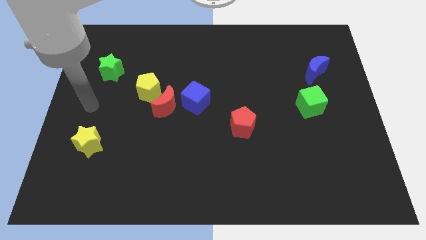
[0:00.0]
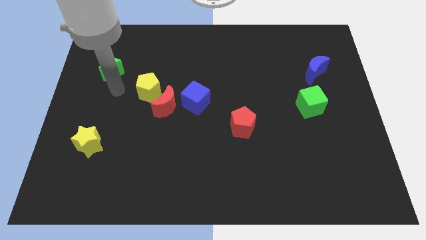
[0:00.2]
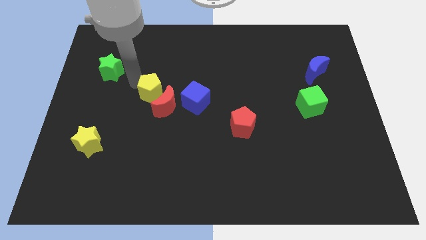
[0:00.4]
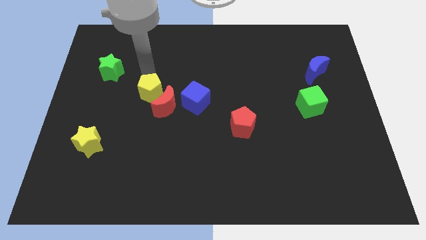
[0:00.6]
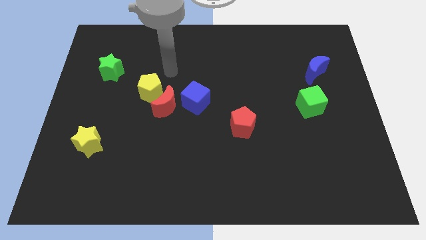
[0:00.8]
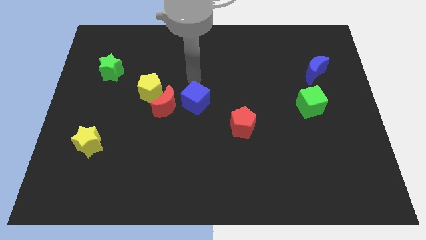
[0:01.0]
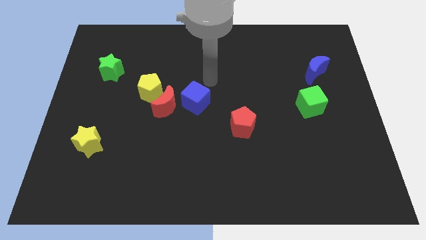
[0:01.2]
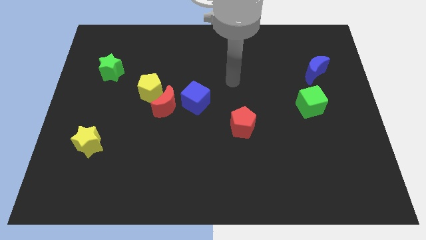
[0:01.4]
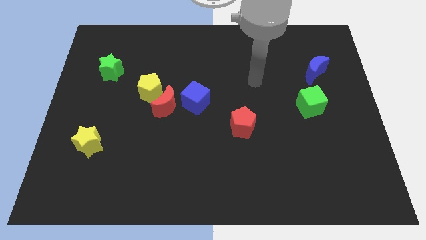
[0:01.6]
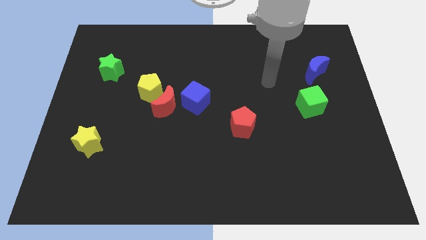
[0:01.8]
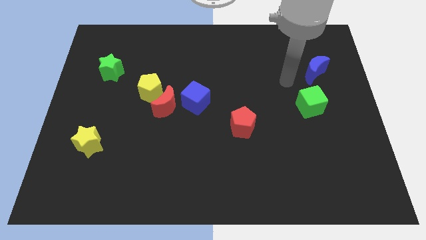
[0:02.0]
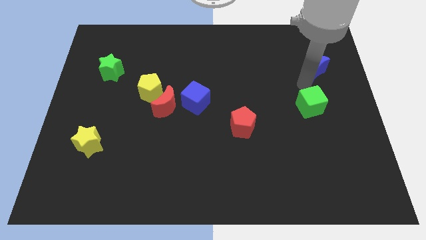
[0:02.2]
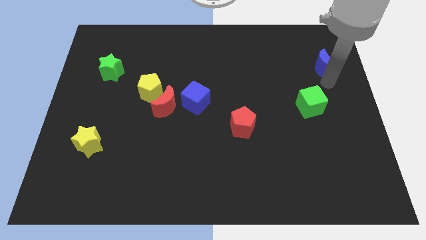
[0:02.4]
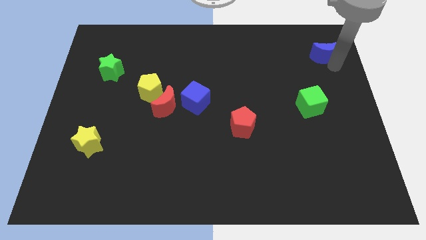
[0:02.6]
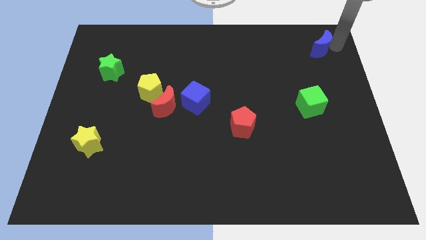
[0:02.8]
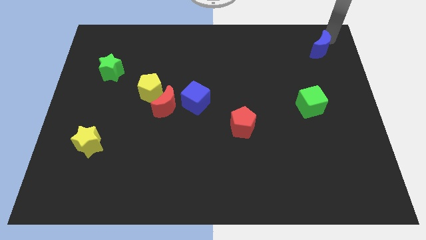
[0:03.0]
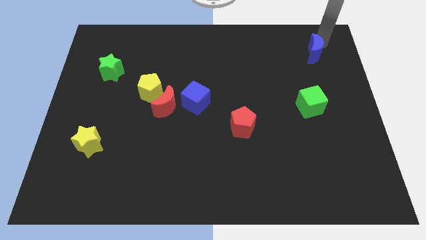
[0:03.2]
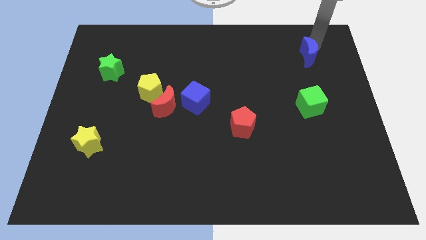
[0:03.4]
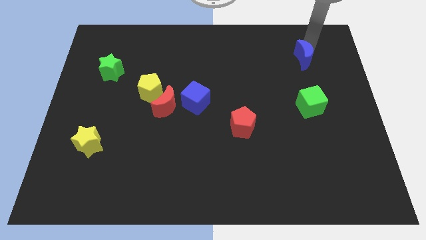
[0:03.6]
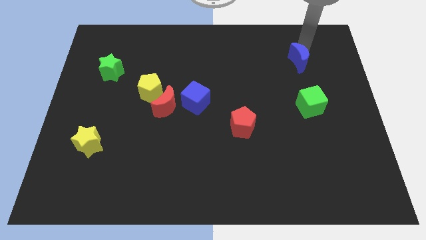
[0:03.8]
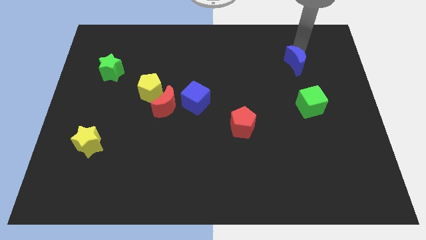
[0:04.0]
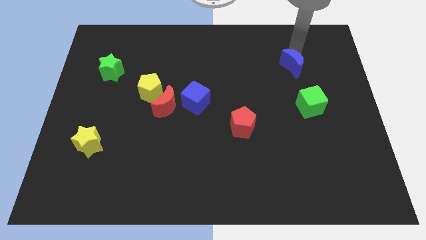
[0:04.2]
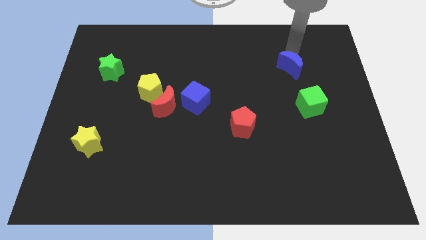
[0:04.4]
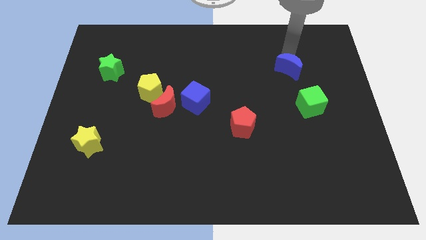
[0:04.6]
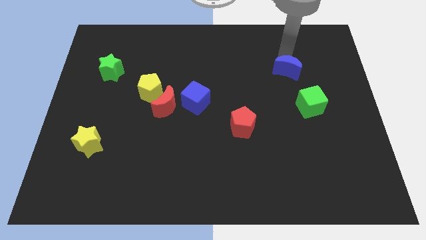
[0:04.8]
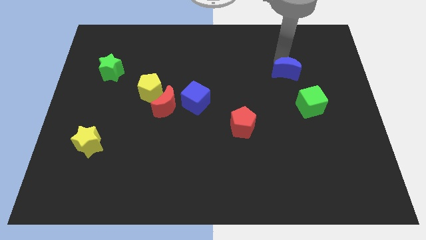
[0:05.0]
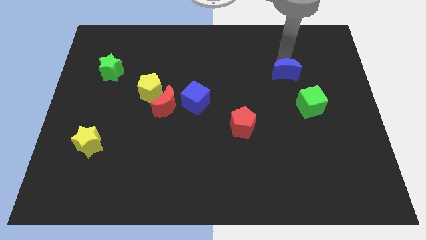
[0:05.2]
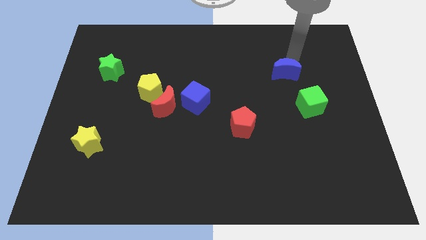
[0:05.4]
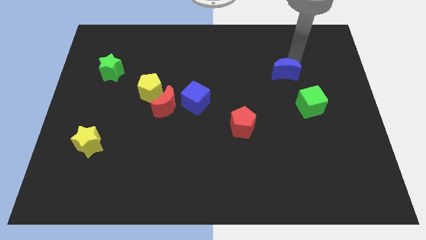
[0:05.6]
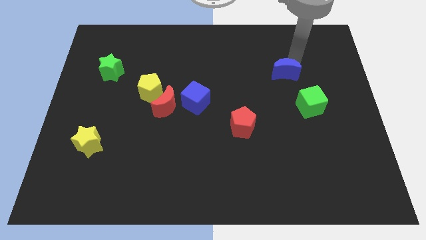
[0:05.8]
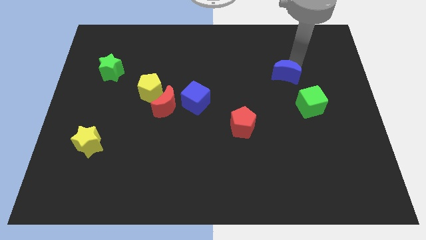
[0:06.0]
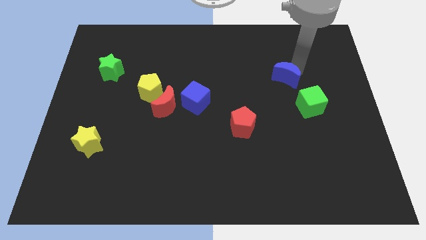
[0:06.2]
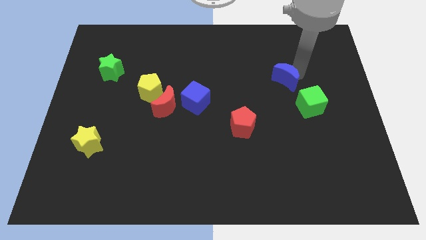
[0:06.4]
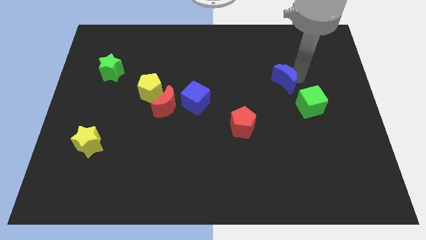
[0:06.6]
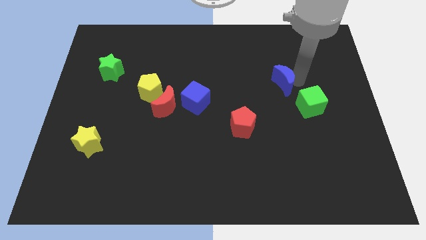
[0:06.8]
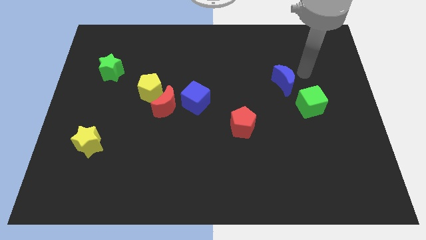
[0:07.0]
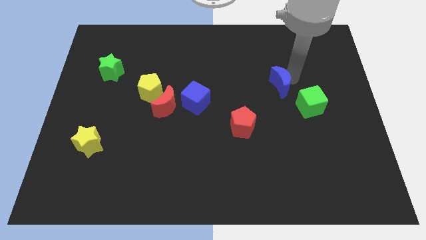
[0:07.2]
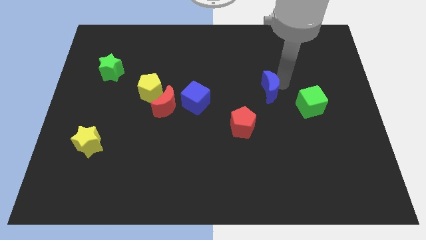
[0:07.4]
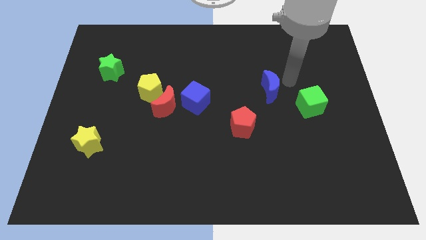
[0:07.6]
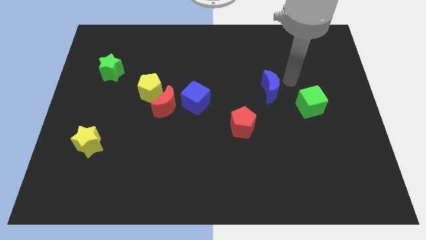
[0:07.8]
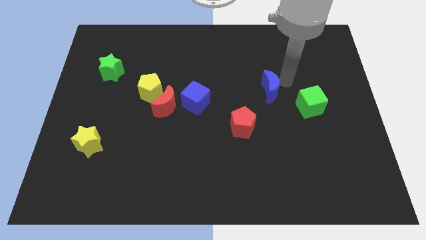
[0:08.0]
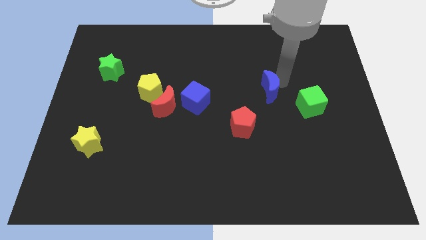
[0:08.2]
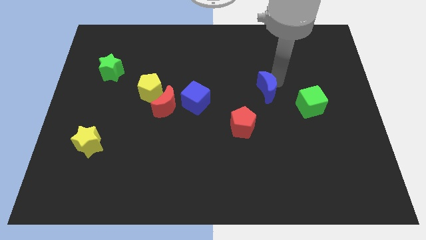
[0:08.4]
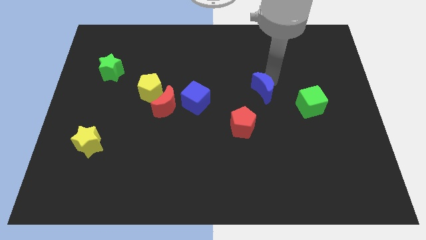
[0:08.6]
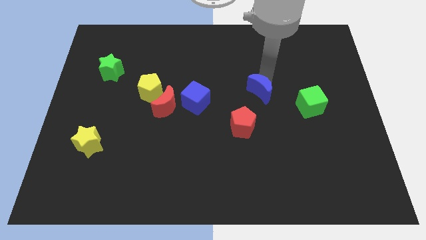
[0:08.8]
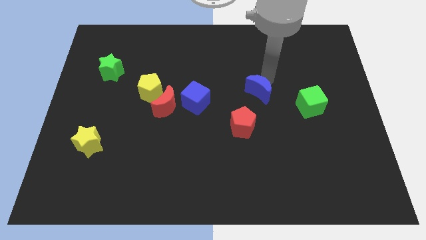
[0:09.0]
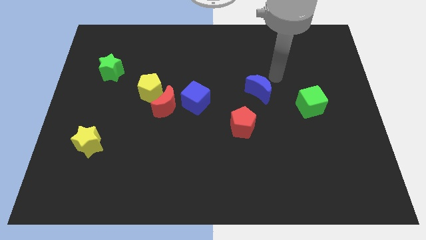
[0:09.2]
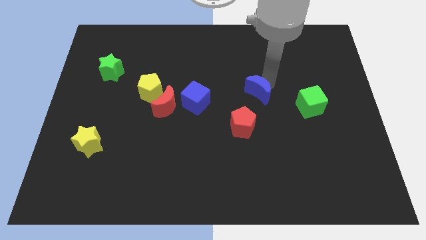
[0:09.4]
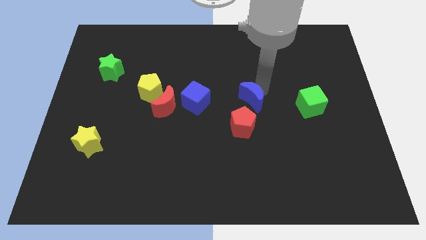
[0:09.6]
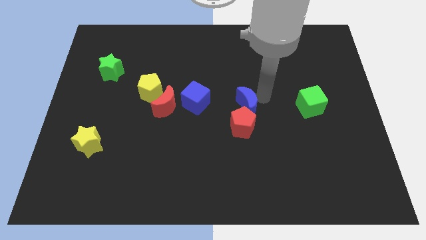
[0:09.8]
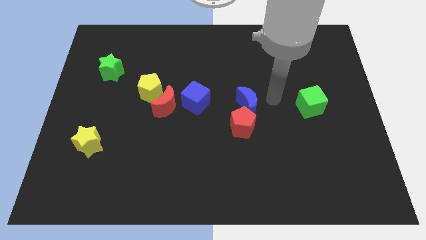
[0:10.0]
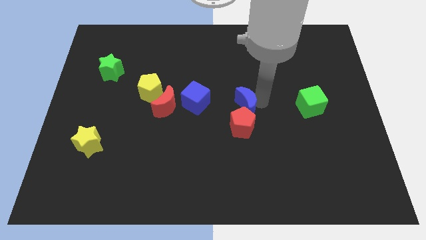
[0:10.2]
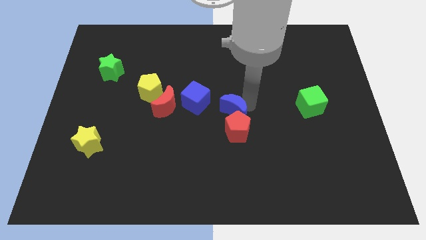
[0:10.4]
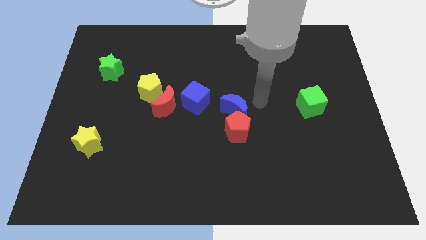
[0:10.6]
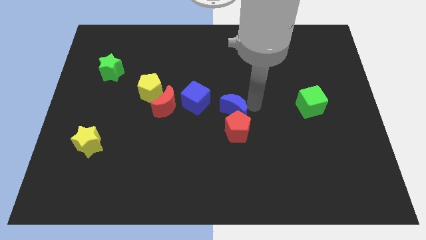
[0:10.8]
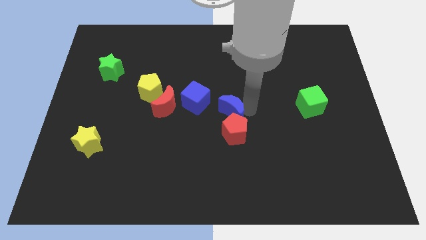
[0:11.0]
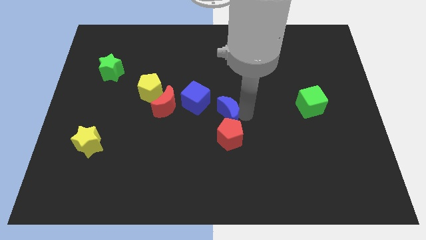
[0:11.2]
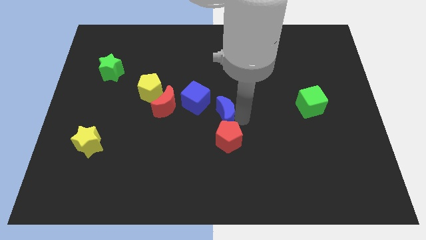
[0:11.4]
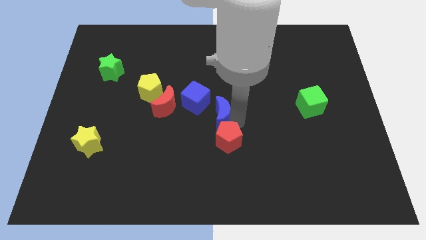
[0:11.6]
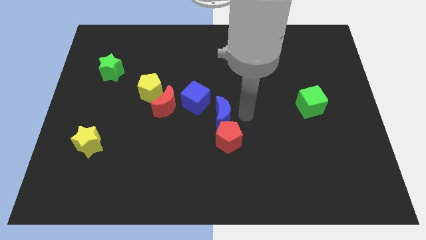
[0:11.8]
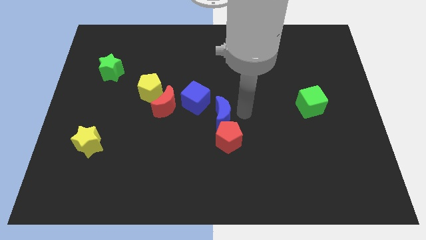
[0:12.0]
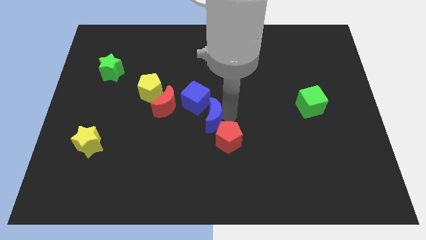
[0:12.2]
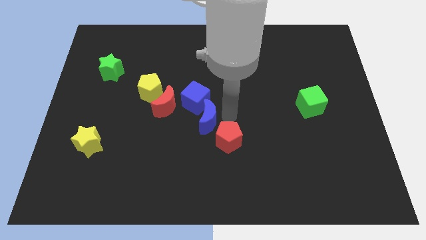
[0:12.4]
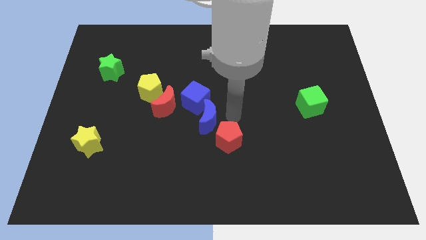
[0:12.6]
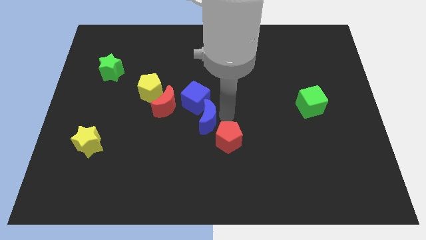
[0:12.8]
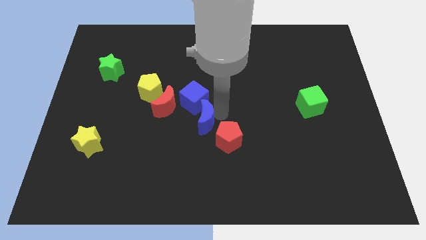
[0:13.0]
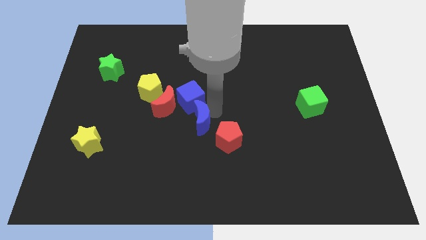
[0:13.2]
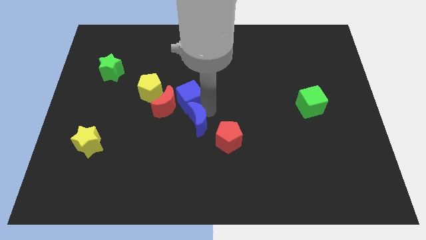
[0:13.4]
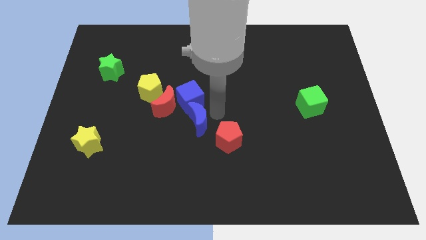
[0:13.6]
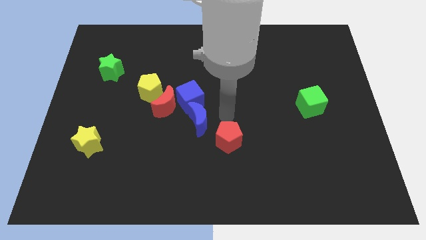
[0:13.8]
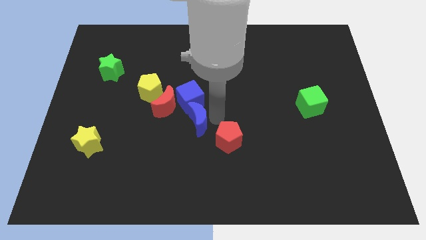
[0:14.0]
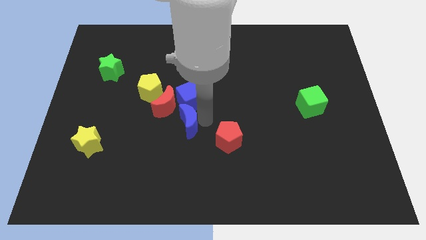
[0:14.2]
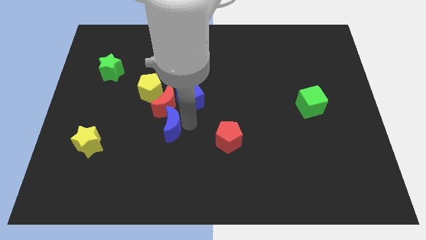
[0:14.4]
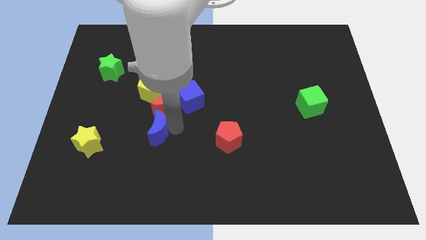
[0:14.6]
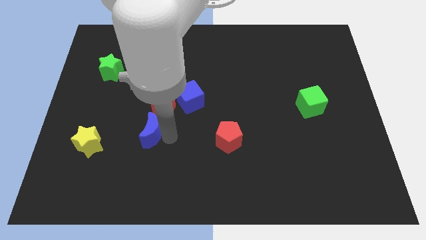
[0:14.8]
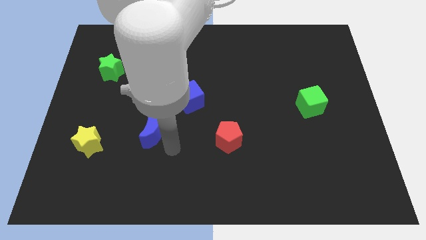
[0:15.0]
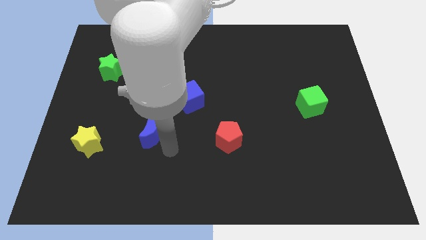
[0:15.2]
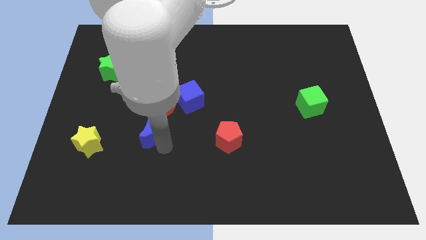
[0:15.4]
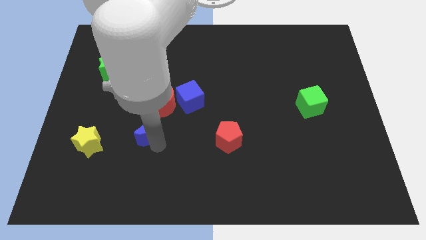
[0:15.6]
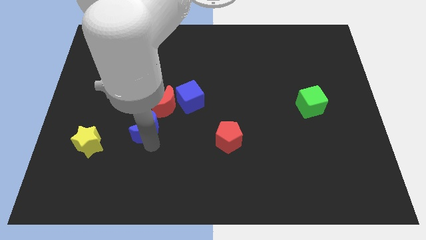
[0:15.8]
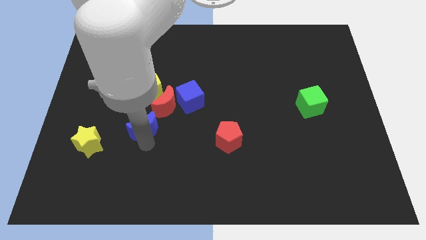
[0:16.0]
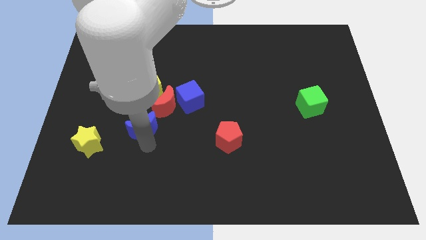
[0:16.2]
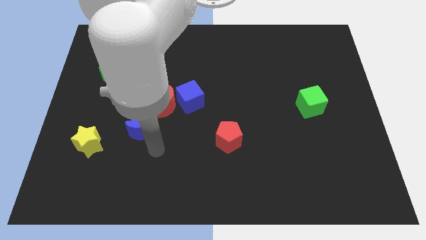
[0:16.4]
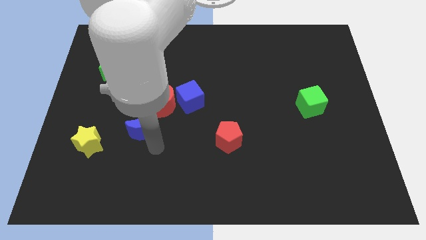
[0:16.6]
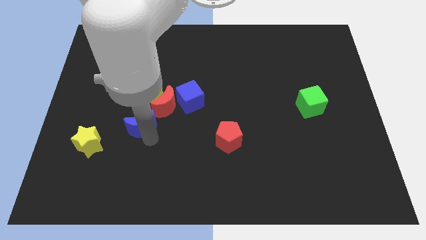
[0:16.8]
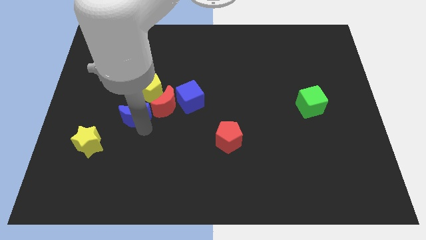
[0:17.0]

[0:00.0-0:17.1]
put the blue moon to the left side of the red moon
